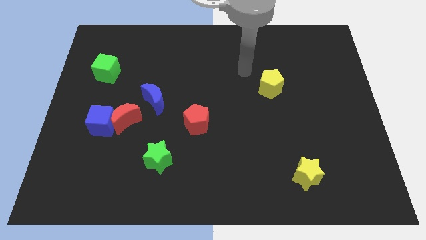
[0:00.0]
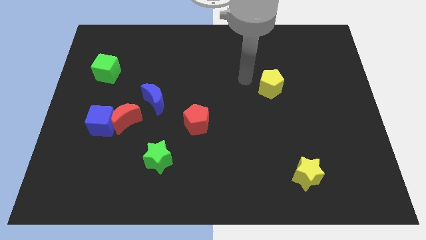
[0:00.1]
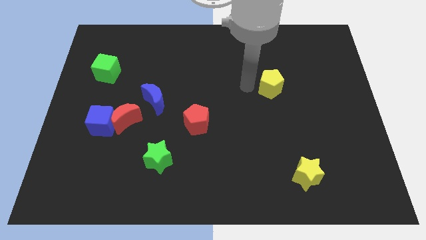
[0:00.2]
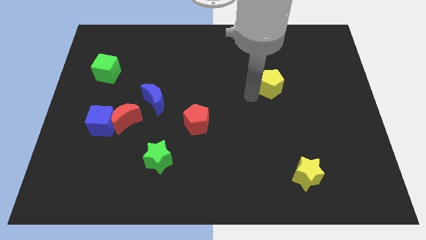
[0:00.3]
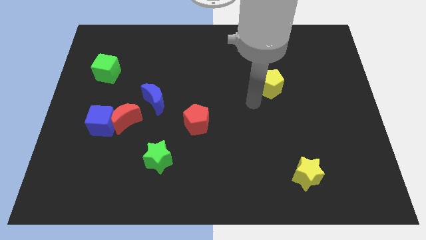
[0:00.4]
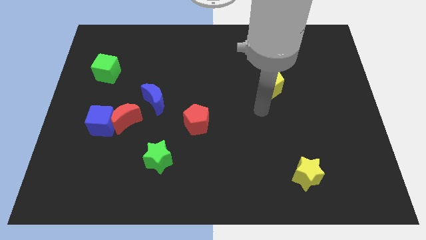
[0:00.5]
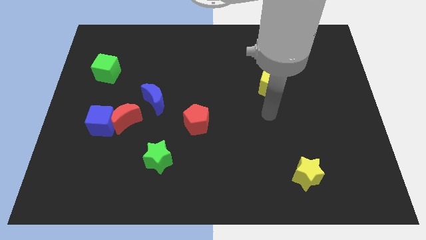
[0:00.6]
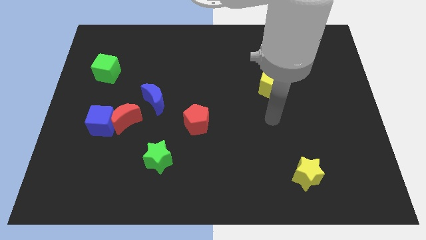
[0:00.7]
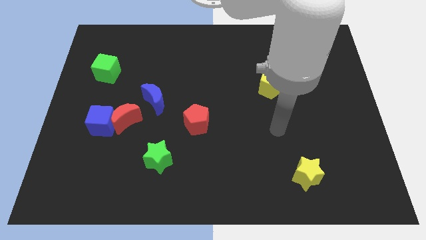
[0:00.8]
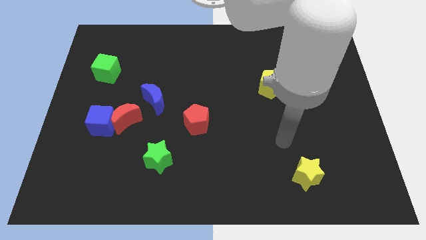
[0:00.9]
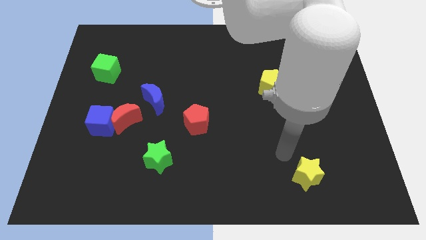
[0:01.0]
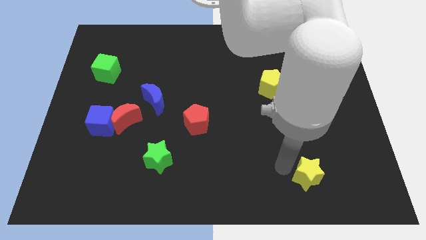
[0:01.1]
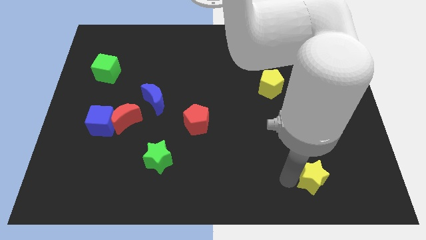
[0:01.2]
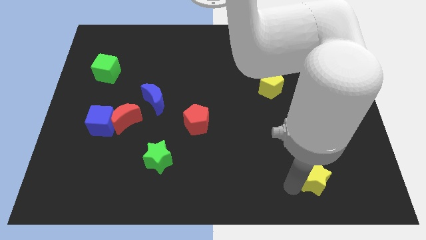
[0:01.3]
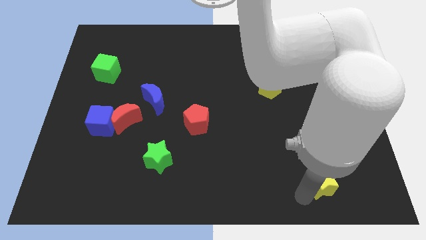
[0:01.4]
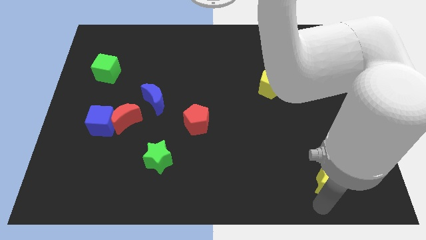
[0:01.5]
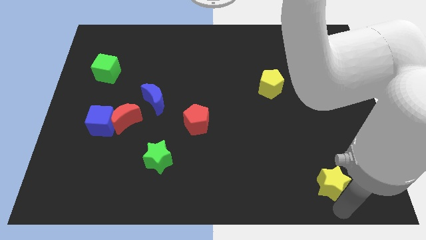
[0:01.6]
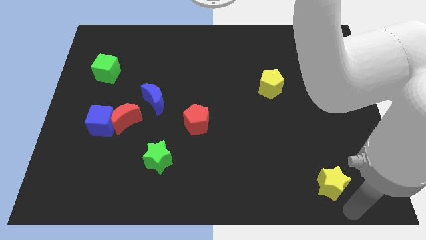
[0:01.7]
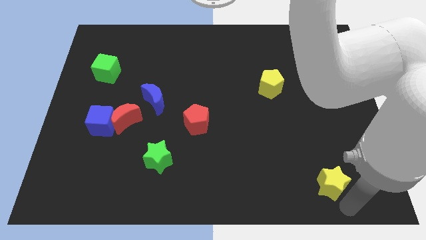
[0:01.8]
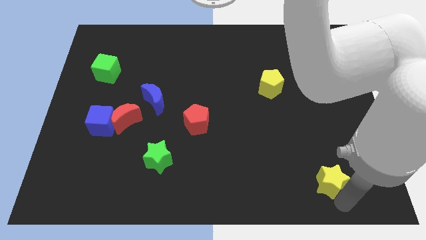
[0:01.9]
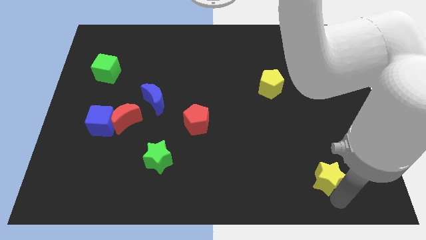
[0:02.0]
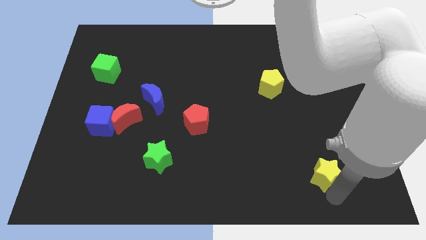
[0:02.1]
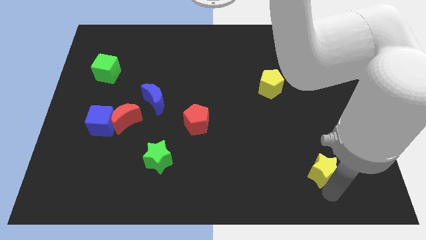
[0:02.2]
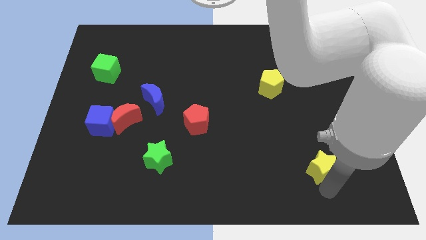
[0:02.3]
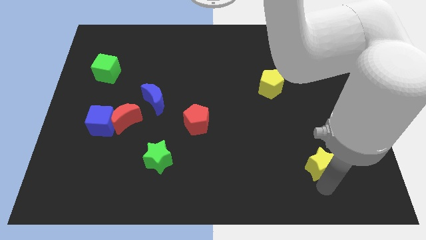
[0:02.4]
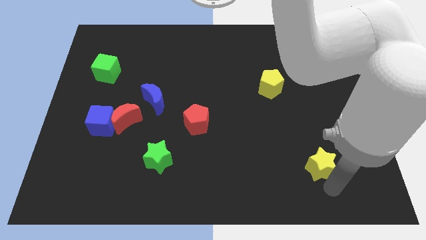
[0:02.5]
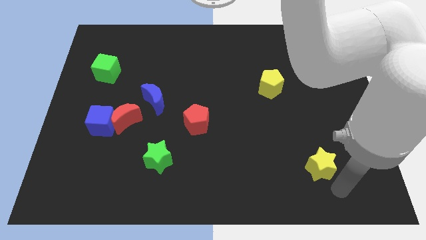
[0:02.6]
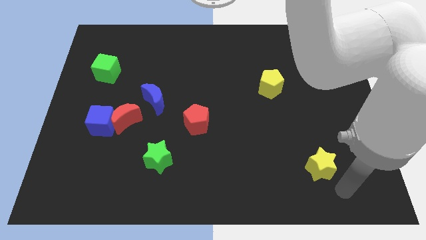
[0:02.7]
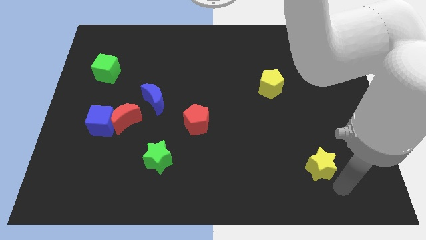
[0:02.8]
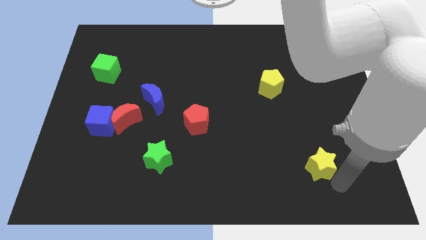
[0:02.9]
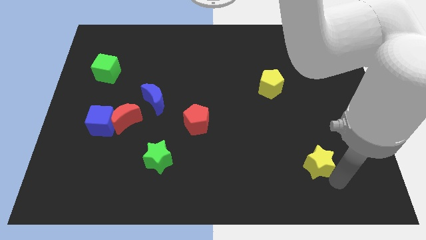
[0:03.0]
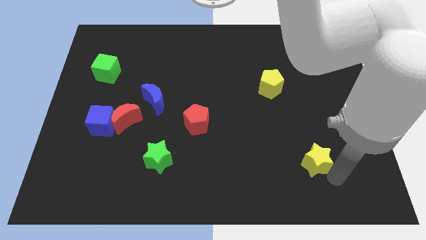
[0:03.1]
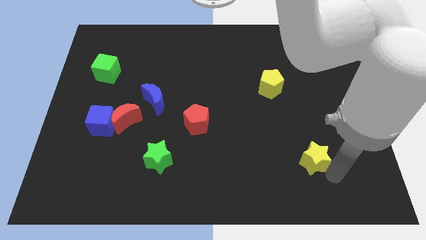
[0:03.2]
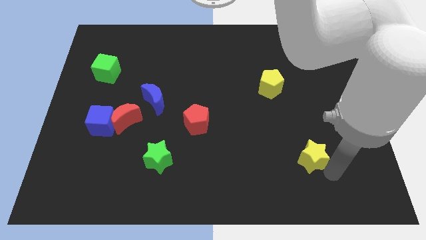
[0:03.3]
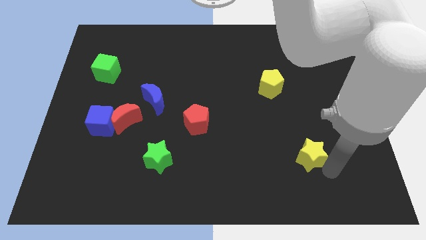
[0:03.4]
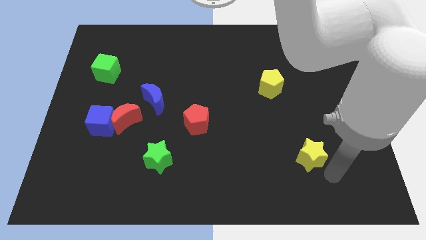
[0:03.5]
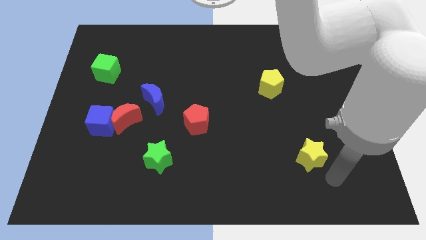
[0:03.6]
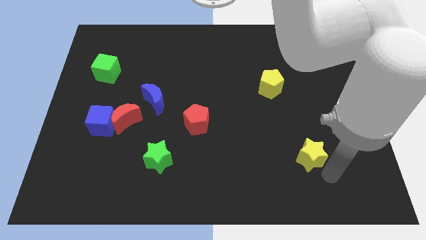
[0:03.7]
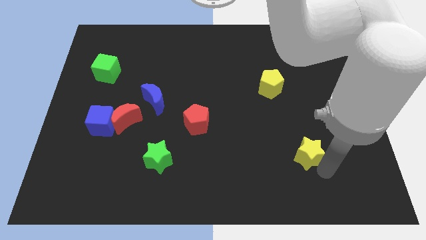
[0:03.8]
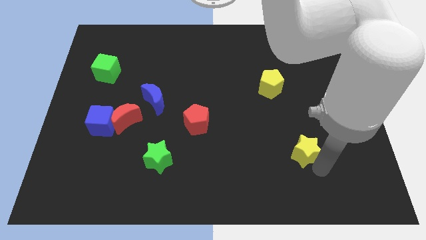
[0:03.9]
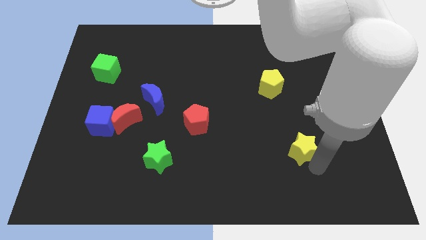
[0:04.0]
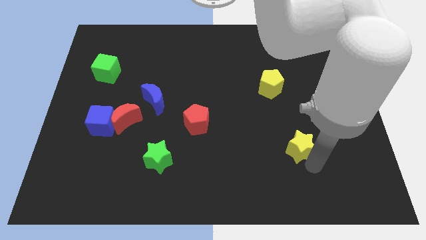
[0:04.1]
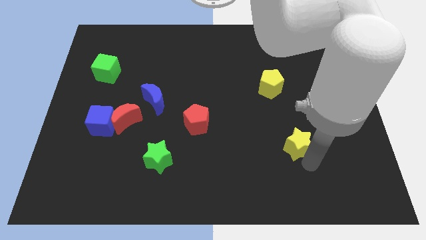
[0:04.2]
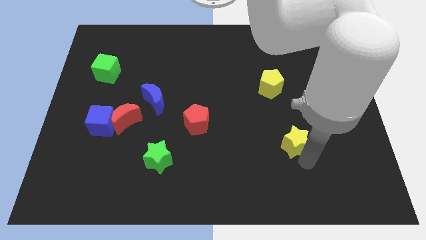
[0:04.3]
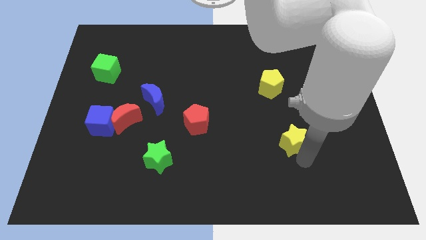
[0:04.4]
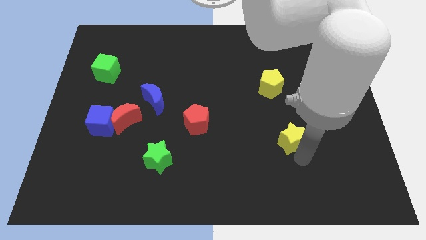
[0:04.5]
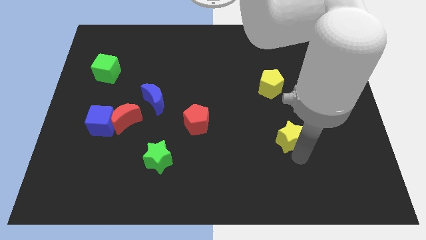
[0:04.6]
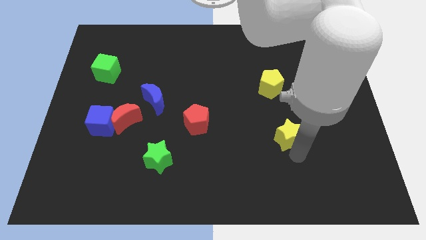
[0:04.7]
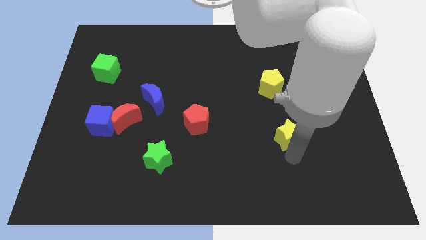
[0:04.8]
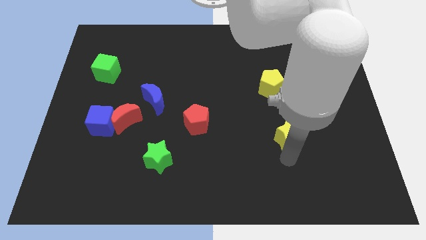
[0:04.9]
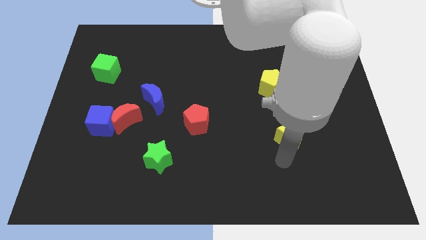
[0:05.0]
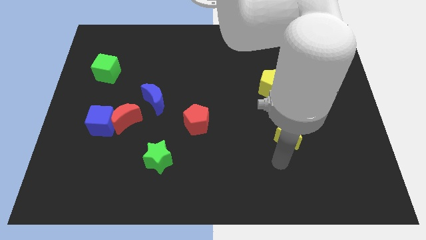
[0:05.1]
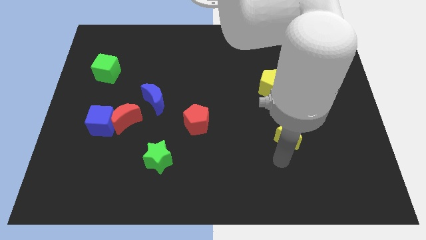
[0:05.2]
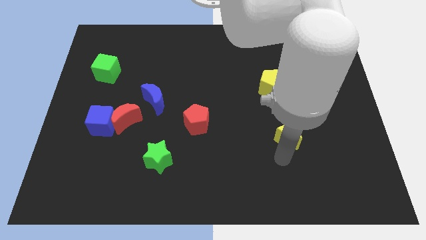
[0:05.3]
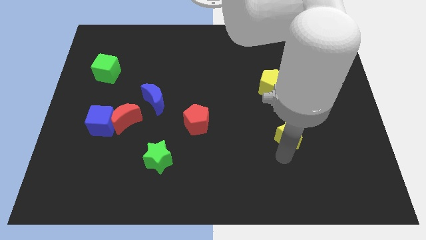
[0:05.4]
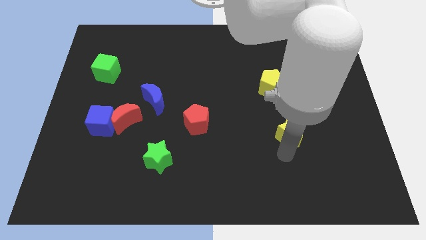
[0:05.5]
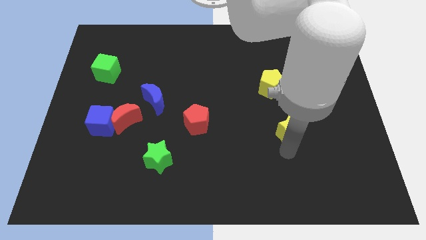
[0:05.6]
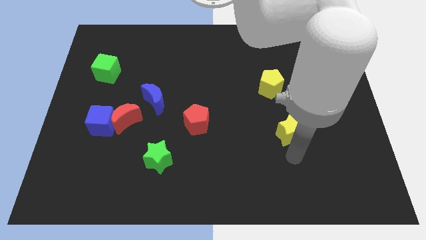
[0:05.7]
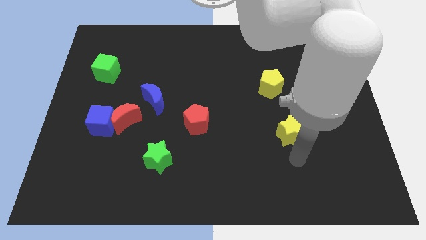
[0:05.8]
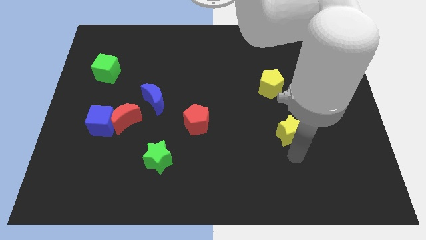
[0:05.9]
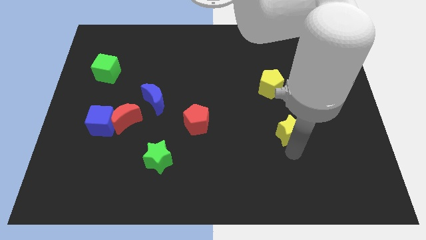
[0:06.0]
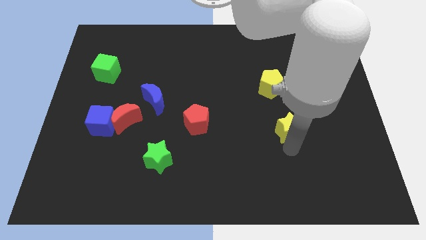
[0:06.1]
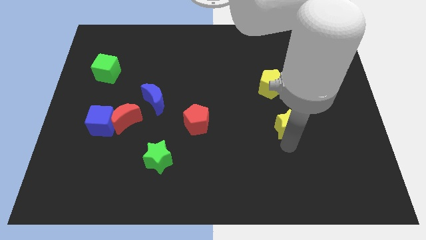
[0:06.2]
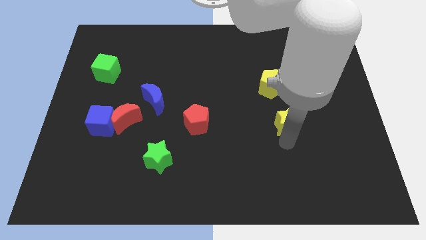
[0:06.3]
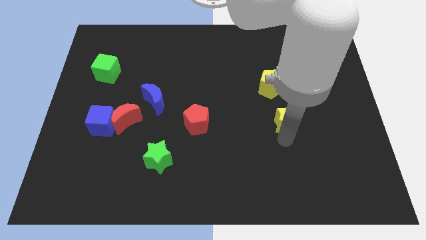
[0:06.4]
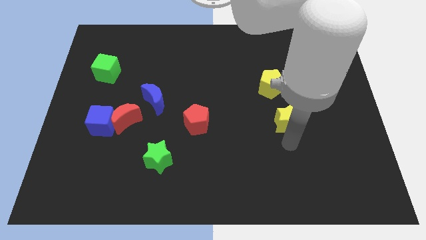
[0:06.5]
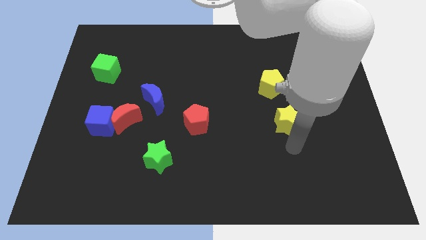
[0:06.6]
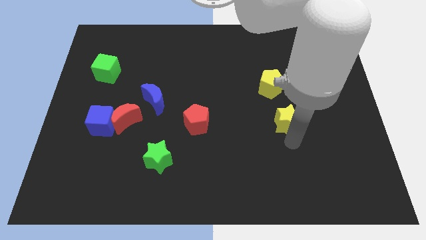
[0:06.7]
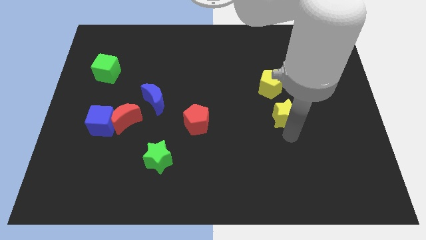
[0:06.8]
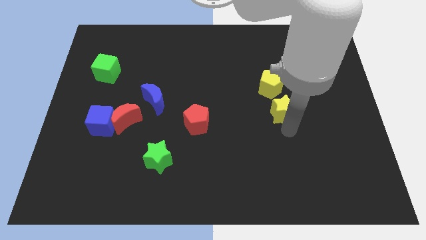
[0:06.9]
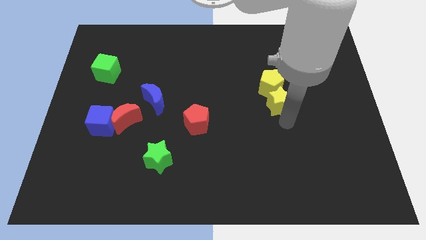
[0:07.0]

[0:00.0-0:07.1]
move the yellow star close to the yellow pentagon
